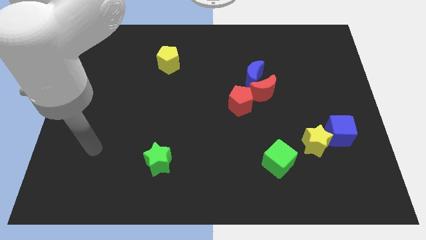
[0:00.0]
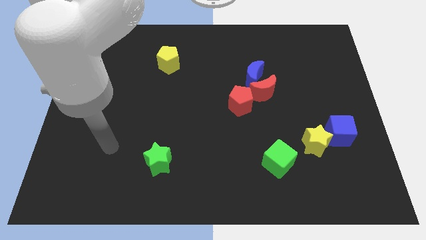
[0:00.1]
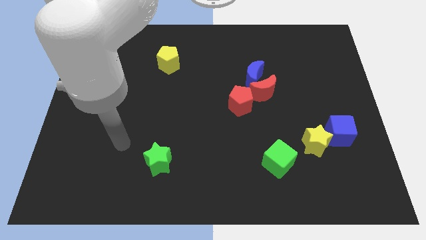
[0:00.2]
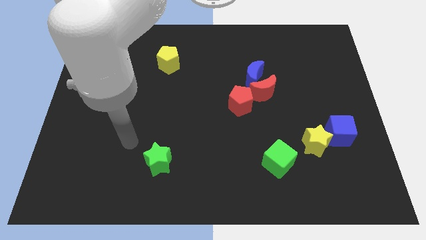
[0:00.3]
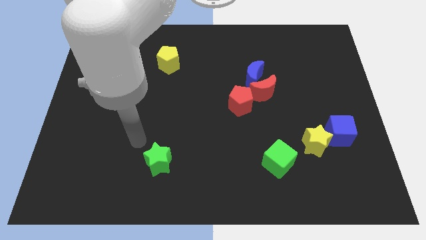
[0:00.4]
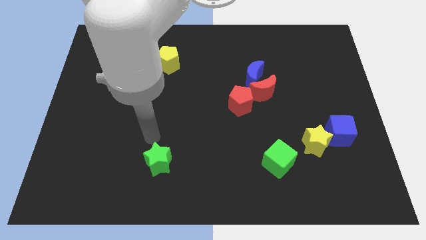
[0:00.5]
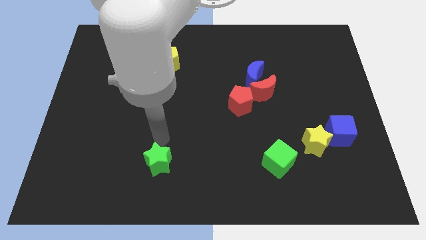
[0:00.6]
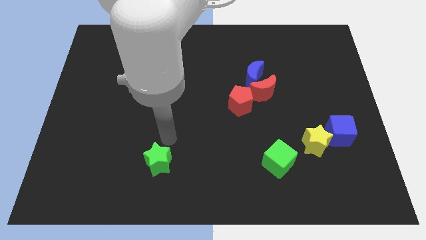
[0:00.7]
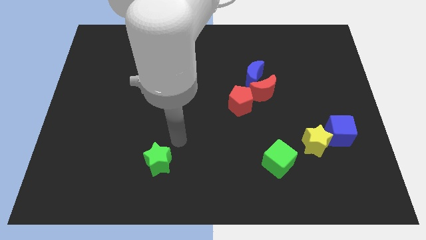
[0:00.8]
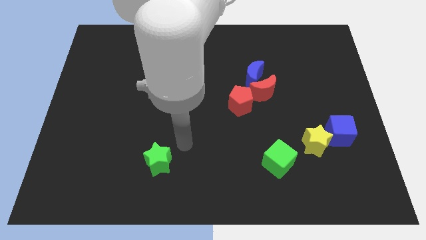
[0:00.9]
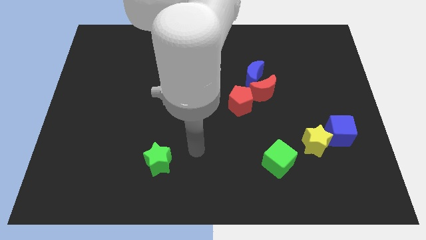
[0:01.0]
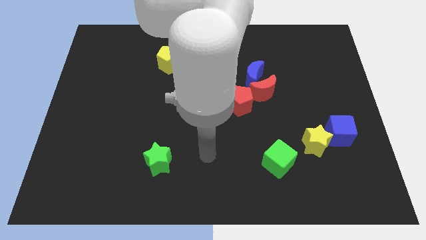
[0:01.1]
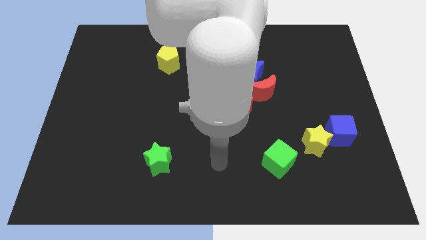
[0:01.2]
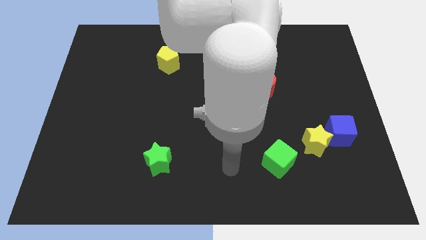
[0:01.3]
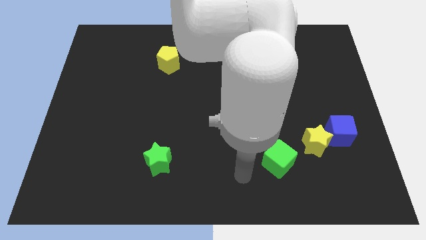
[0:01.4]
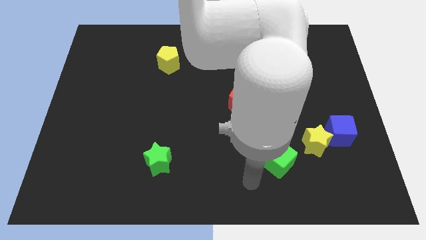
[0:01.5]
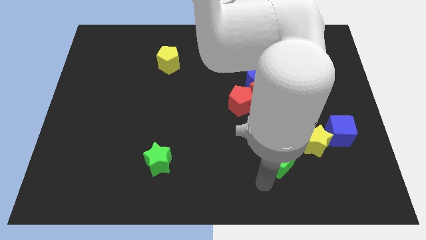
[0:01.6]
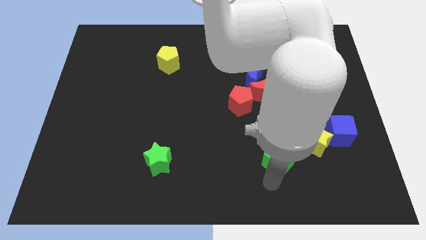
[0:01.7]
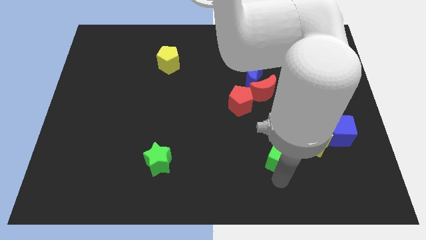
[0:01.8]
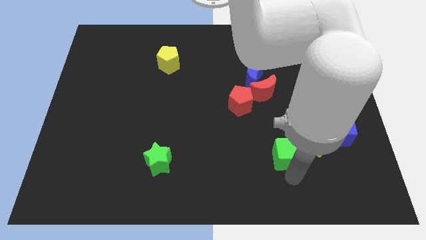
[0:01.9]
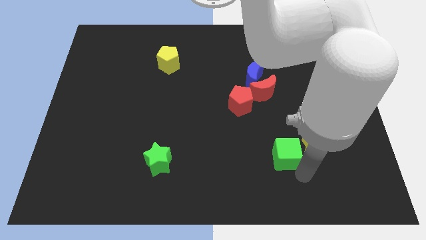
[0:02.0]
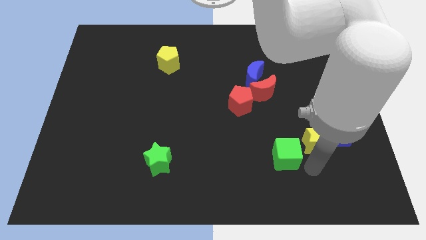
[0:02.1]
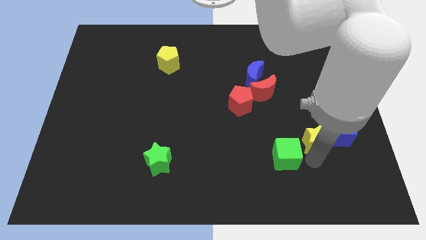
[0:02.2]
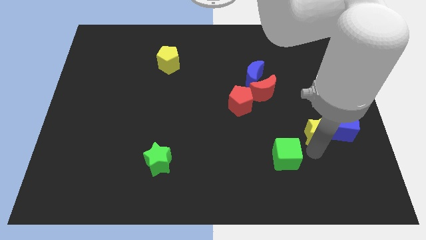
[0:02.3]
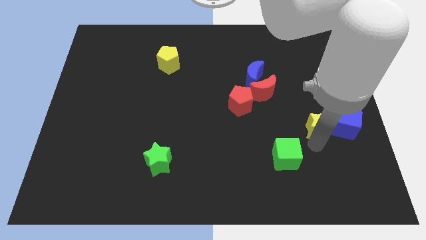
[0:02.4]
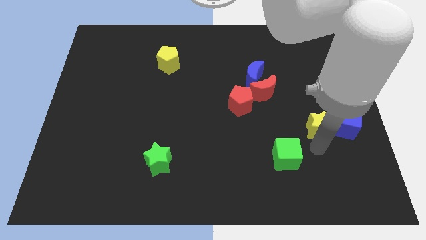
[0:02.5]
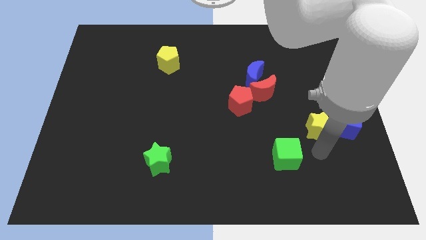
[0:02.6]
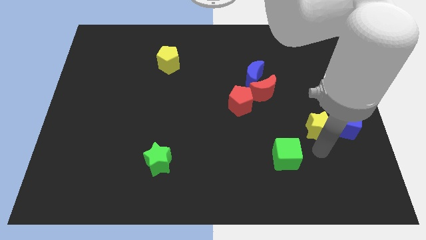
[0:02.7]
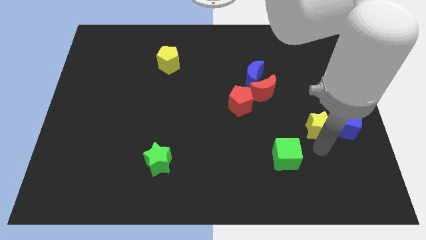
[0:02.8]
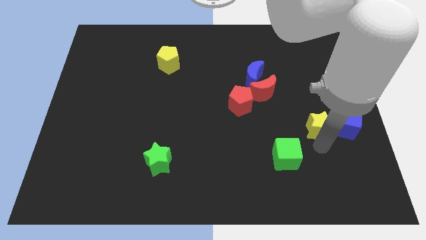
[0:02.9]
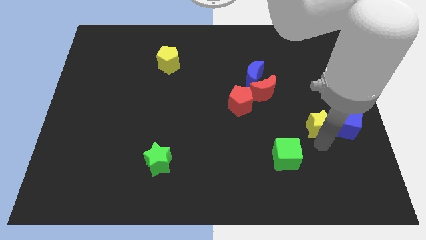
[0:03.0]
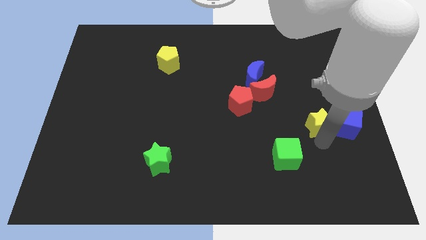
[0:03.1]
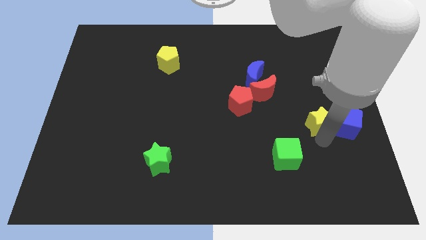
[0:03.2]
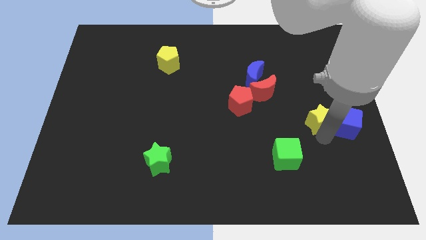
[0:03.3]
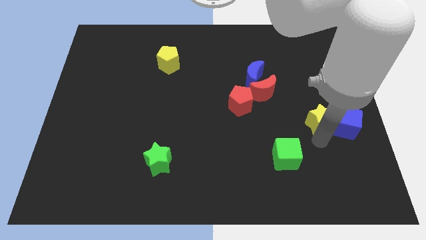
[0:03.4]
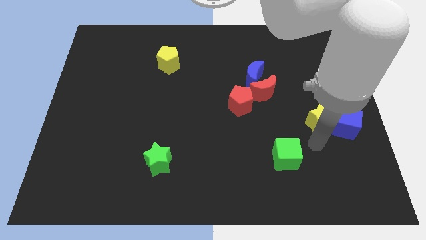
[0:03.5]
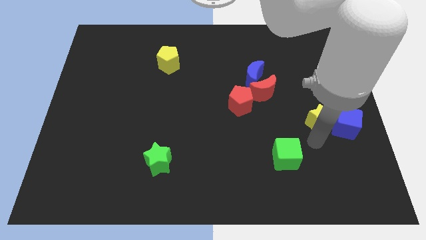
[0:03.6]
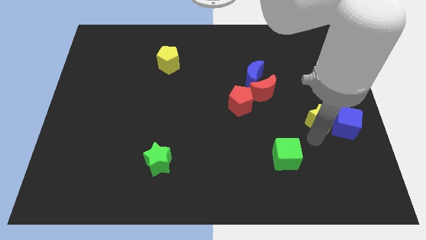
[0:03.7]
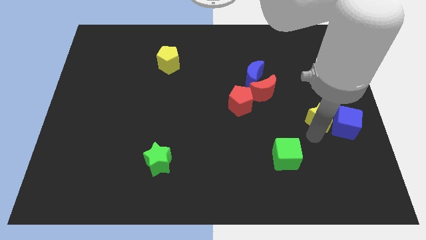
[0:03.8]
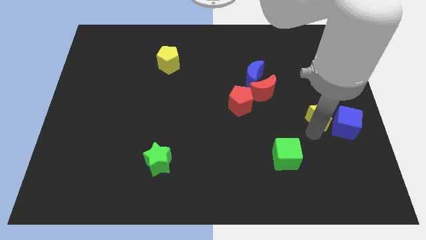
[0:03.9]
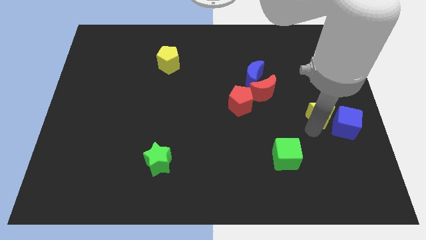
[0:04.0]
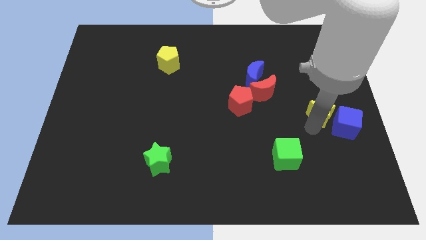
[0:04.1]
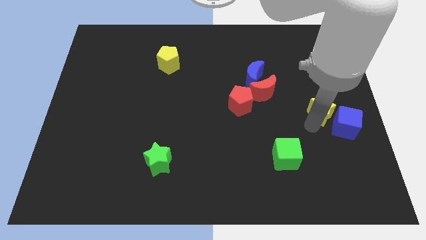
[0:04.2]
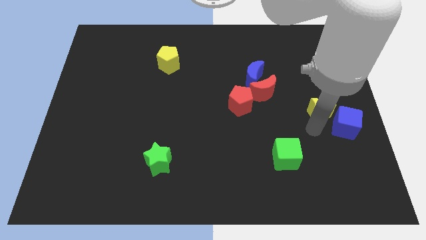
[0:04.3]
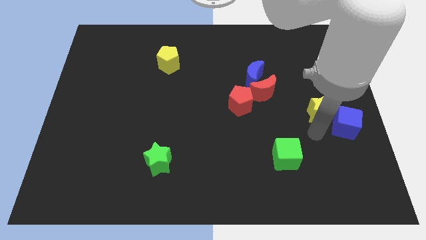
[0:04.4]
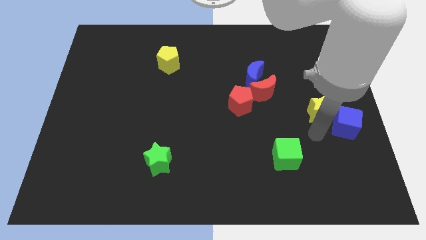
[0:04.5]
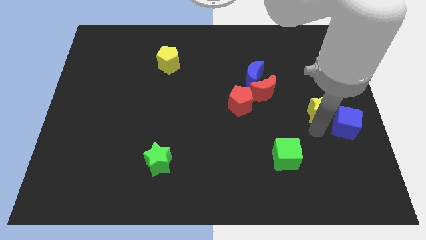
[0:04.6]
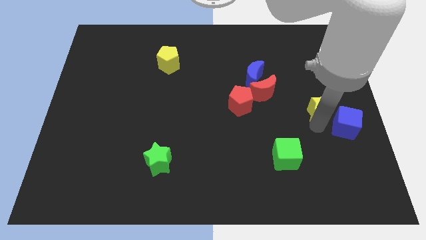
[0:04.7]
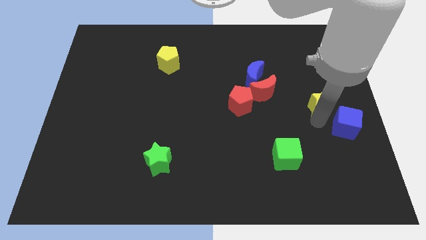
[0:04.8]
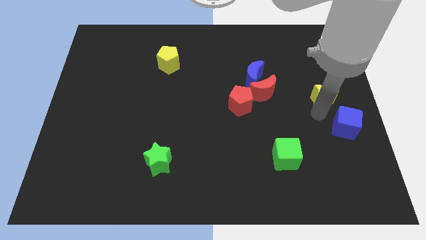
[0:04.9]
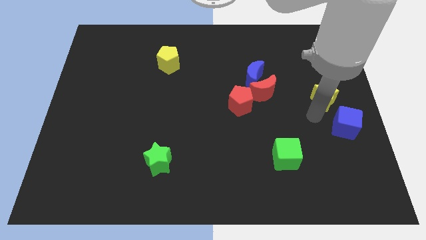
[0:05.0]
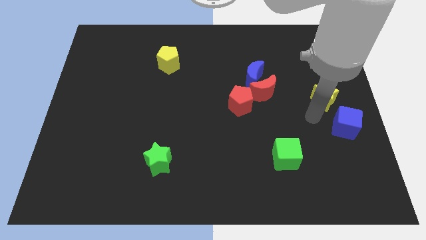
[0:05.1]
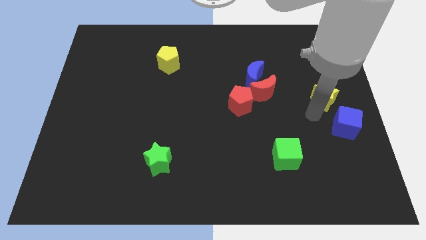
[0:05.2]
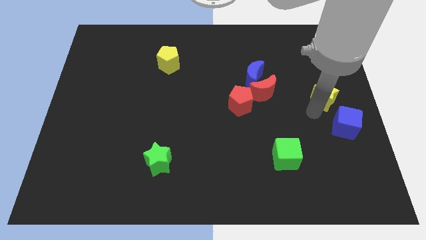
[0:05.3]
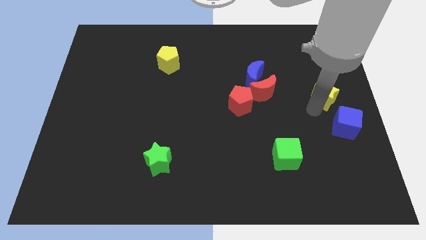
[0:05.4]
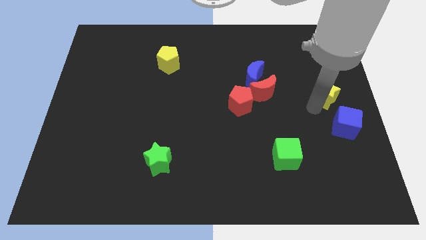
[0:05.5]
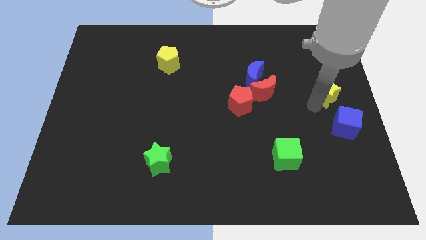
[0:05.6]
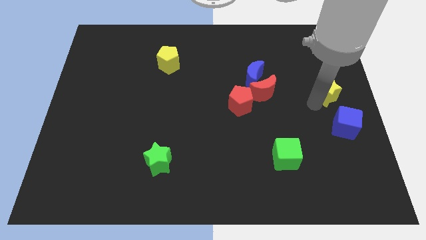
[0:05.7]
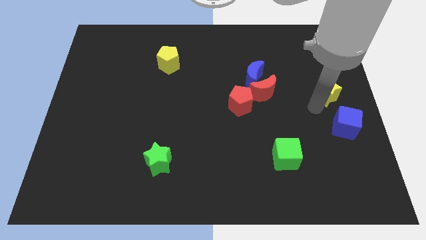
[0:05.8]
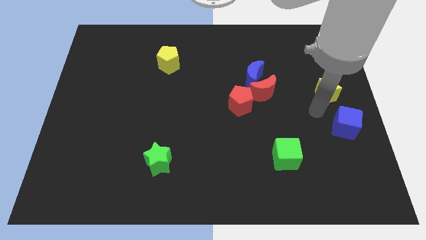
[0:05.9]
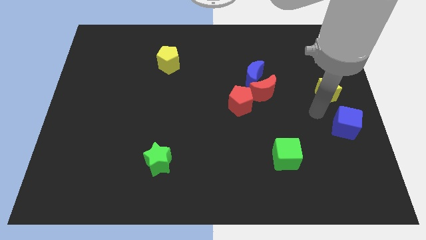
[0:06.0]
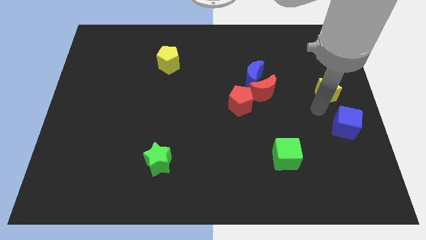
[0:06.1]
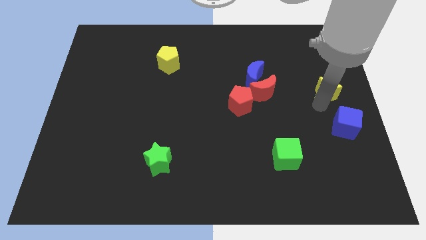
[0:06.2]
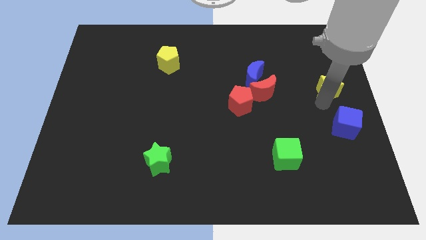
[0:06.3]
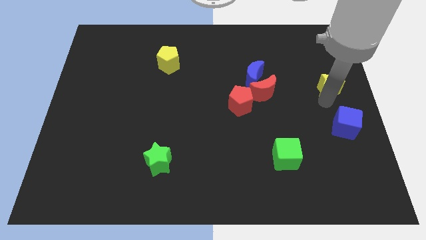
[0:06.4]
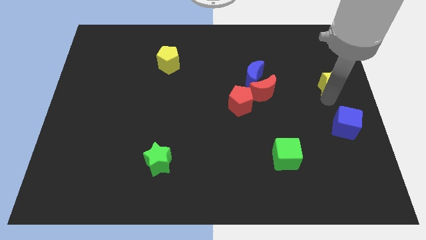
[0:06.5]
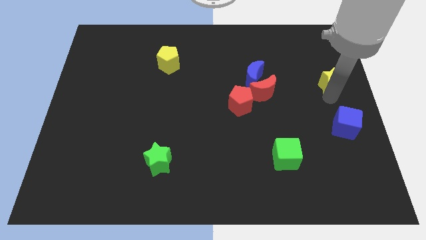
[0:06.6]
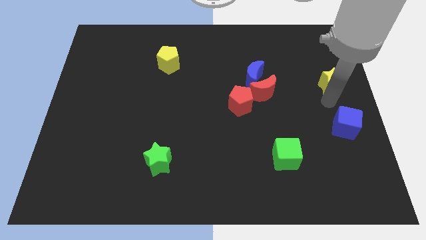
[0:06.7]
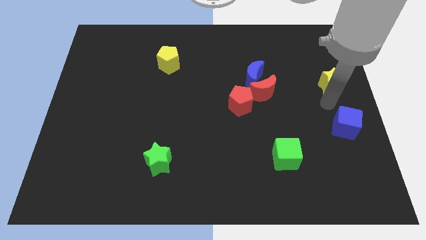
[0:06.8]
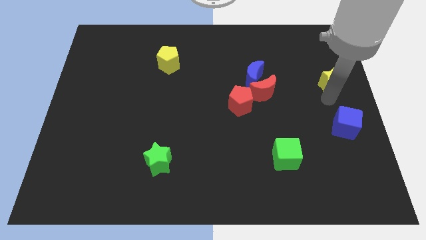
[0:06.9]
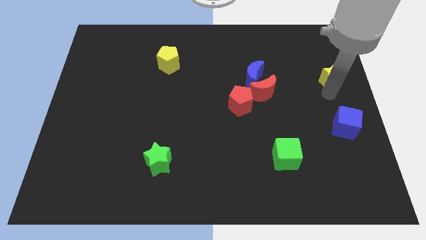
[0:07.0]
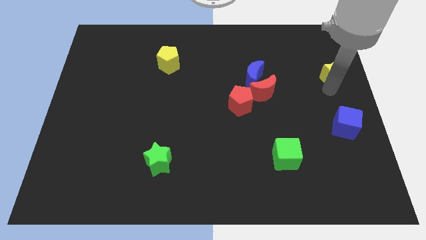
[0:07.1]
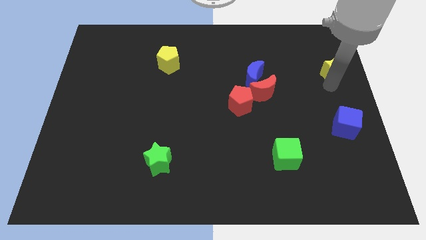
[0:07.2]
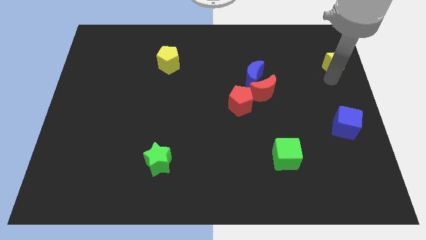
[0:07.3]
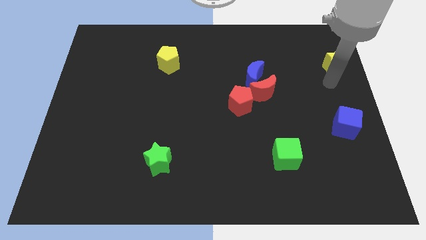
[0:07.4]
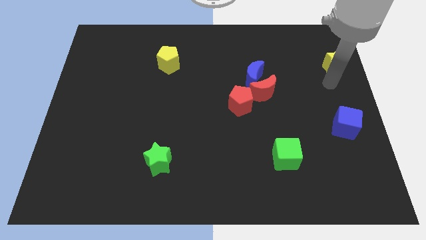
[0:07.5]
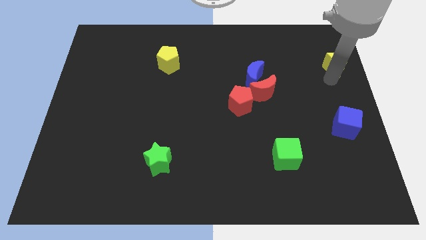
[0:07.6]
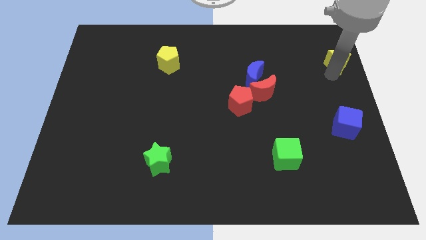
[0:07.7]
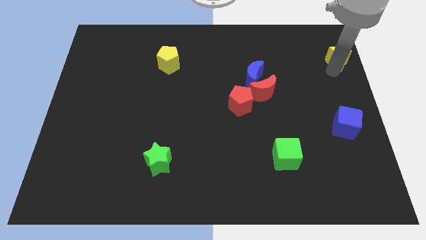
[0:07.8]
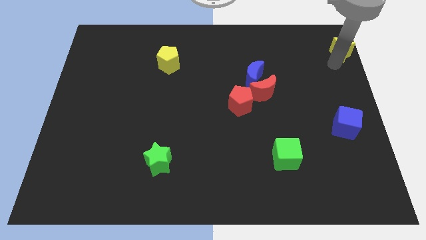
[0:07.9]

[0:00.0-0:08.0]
move the yellow star to the top right corner
